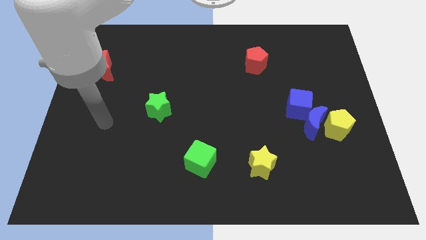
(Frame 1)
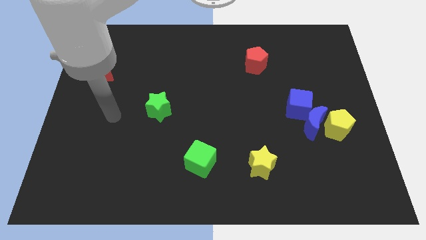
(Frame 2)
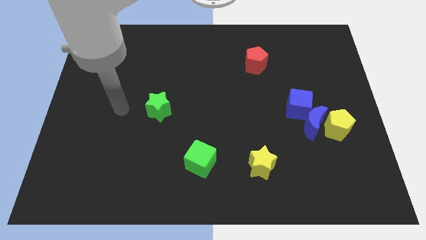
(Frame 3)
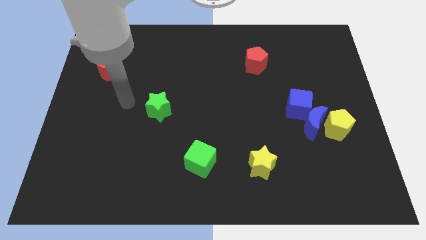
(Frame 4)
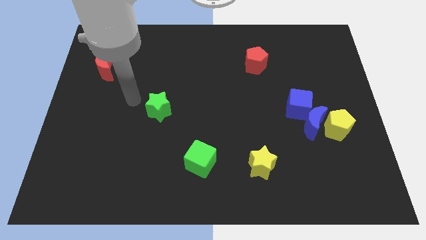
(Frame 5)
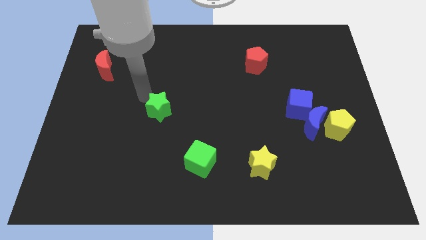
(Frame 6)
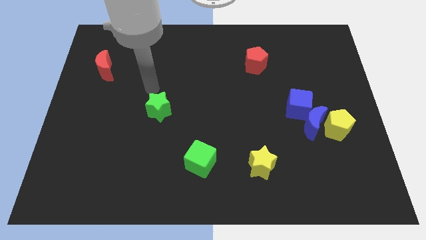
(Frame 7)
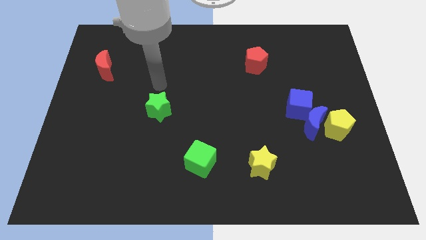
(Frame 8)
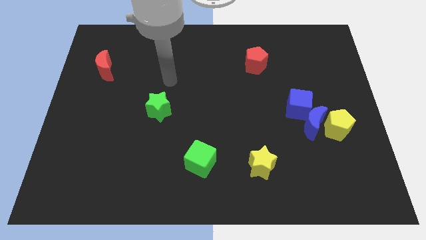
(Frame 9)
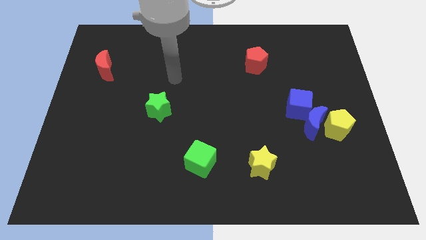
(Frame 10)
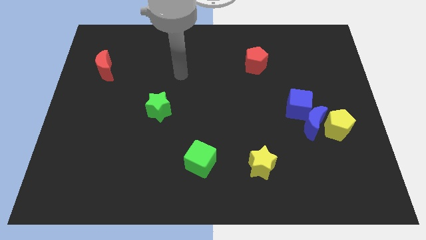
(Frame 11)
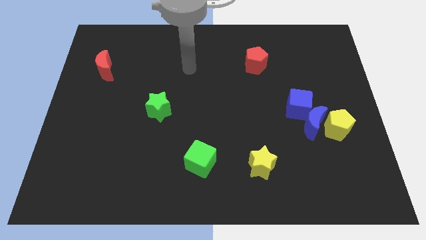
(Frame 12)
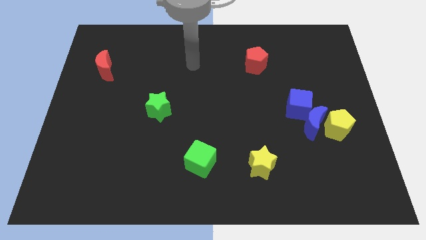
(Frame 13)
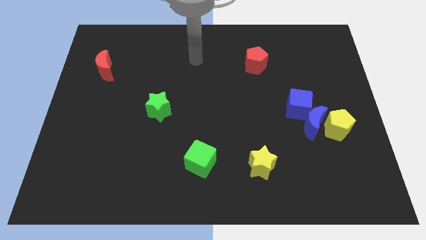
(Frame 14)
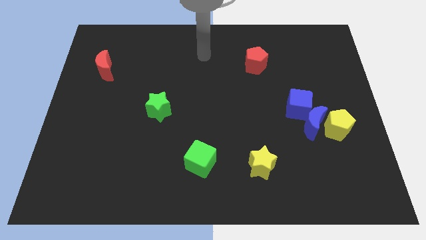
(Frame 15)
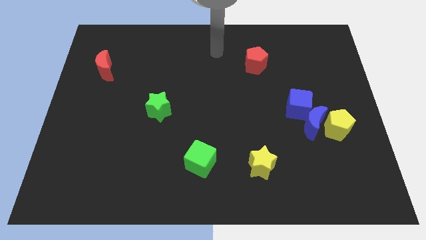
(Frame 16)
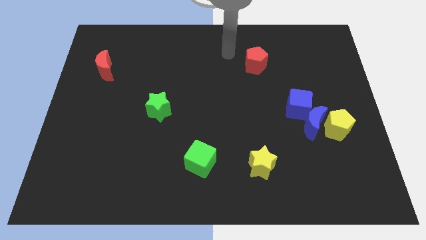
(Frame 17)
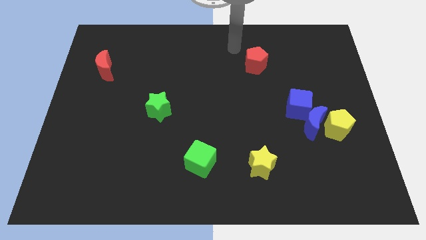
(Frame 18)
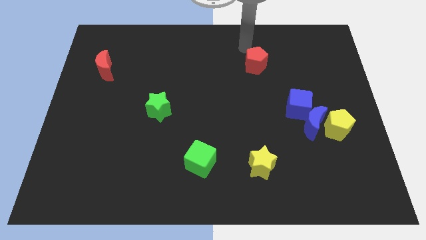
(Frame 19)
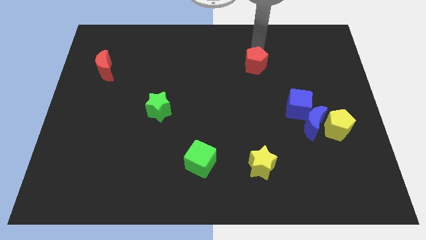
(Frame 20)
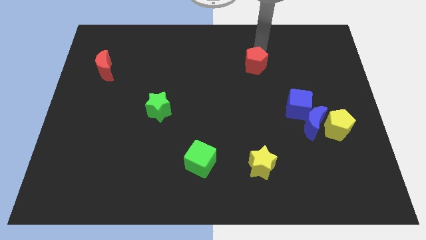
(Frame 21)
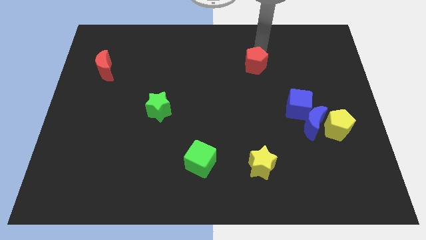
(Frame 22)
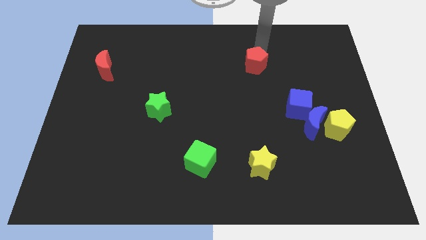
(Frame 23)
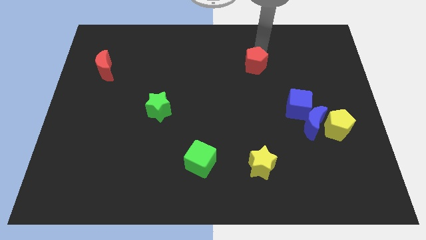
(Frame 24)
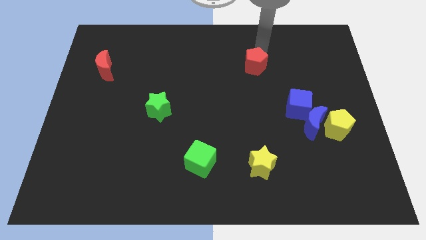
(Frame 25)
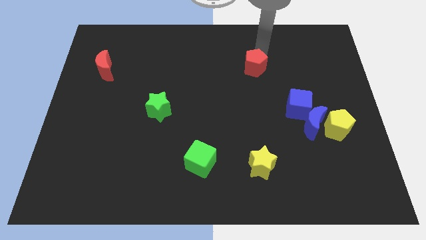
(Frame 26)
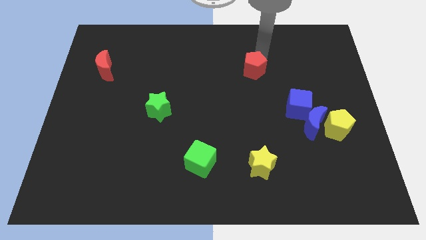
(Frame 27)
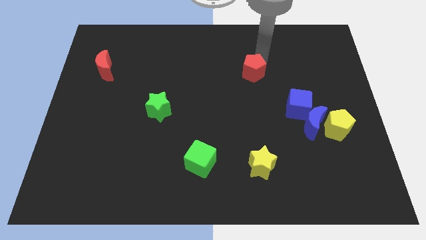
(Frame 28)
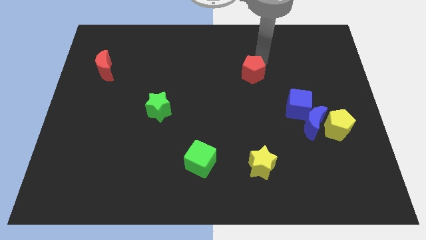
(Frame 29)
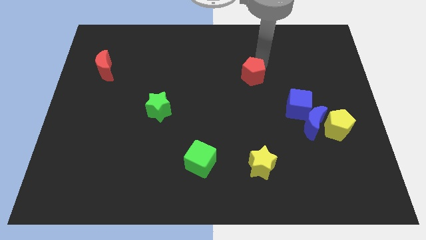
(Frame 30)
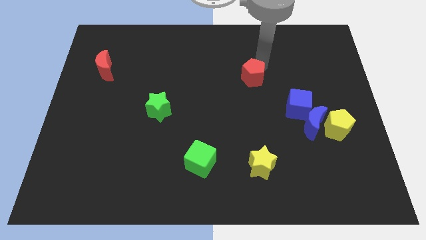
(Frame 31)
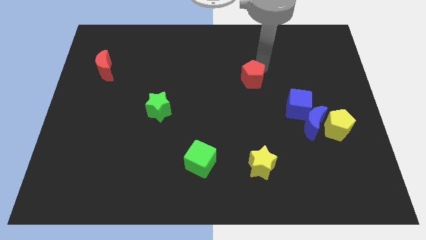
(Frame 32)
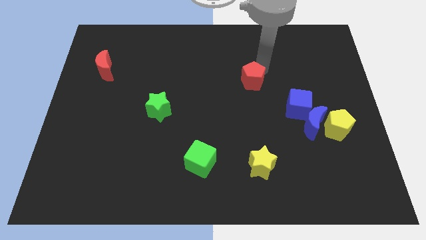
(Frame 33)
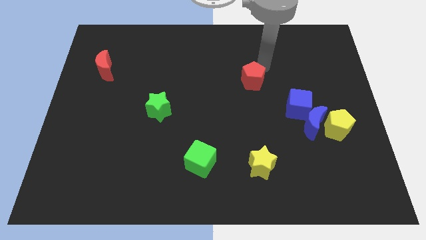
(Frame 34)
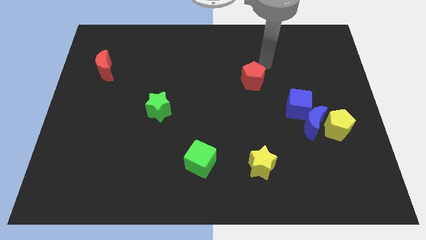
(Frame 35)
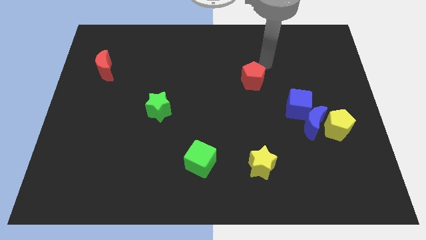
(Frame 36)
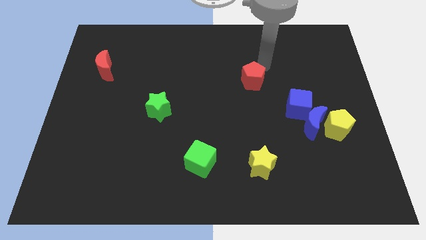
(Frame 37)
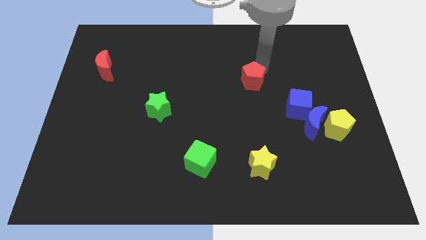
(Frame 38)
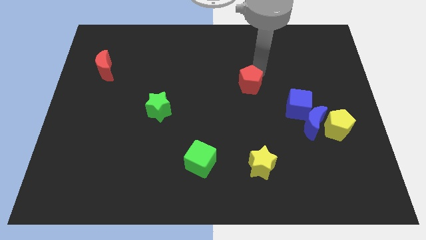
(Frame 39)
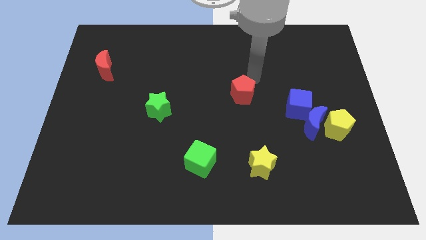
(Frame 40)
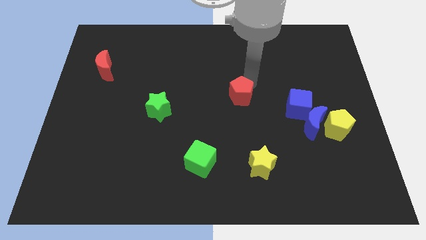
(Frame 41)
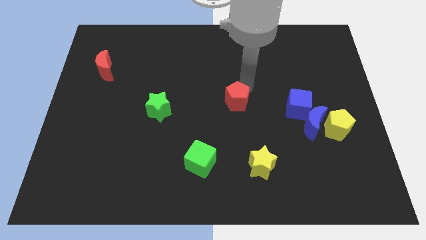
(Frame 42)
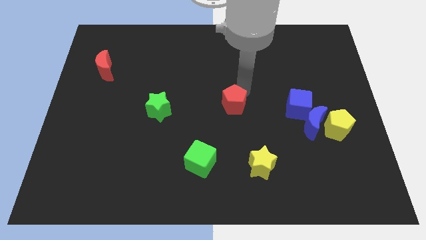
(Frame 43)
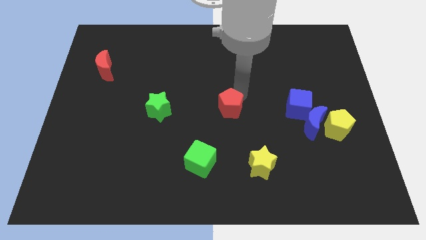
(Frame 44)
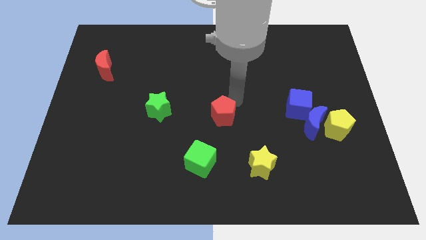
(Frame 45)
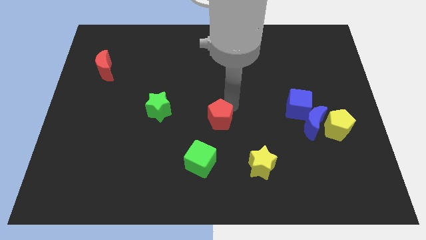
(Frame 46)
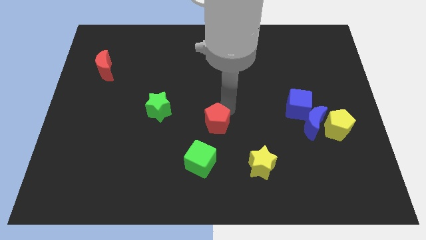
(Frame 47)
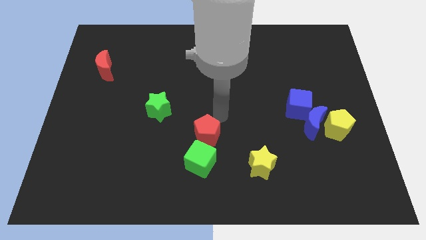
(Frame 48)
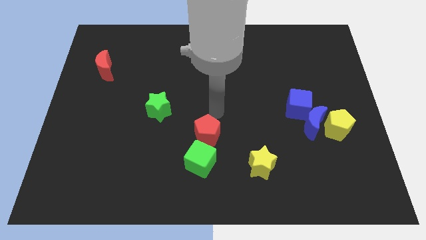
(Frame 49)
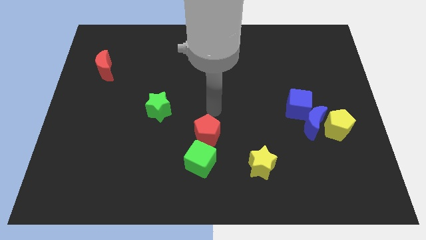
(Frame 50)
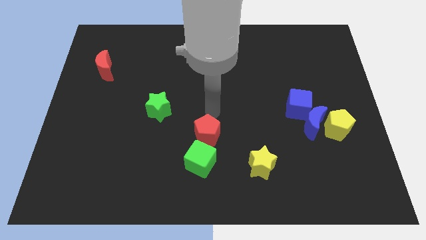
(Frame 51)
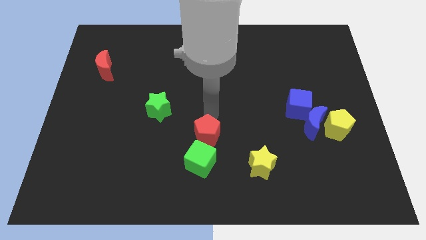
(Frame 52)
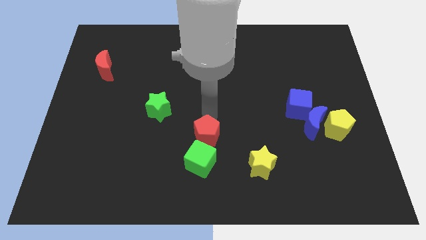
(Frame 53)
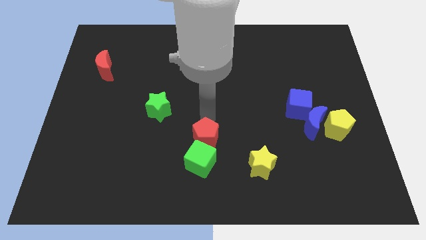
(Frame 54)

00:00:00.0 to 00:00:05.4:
put the red pentagon towards the green cube

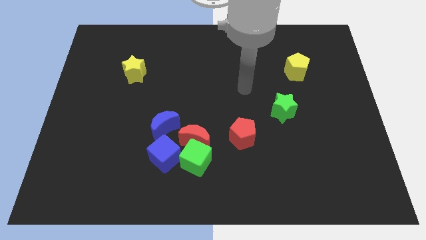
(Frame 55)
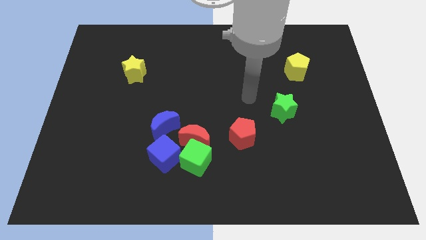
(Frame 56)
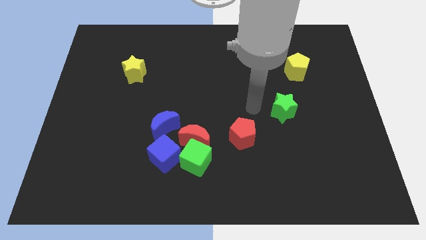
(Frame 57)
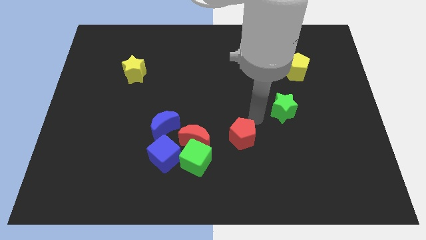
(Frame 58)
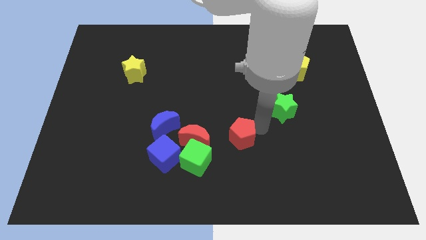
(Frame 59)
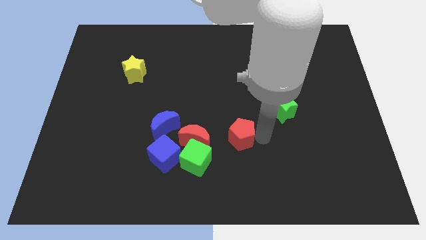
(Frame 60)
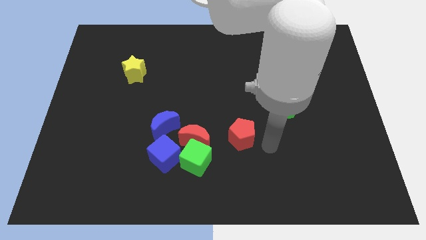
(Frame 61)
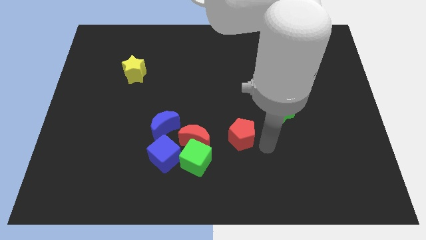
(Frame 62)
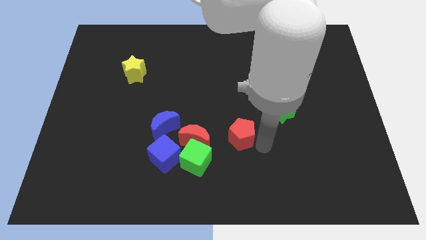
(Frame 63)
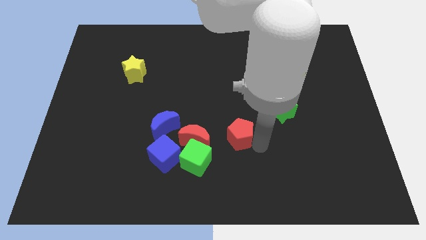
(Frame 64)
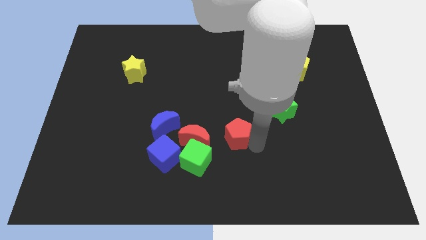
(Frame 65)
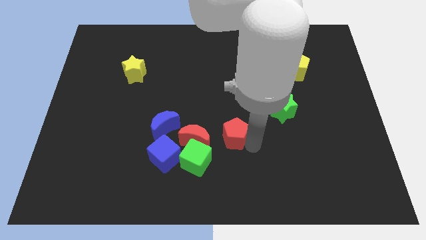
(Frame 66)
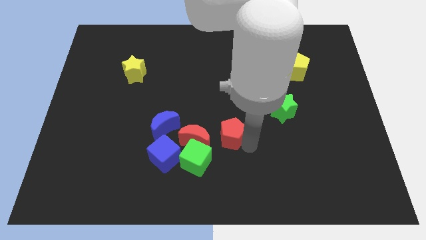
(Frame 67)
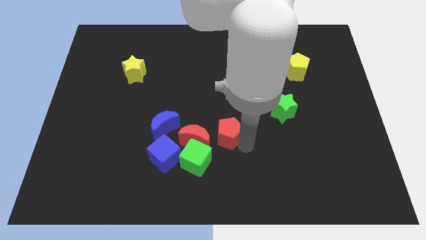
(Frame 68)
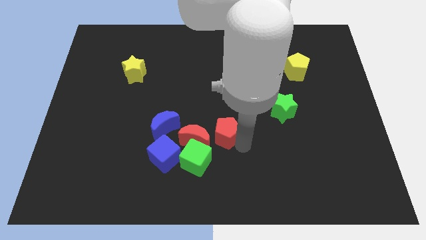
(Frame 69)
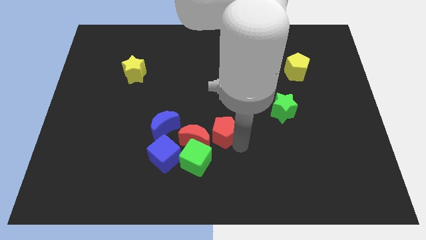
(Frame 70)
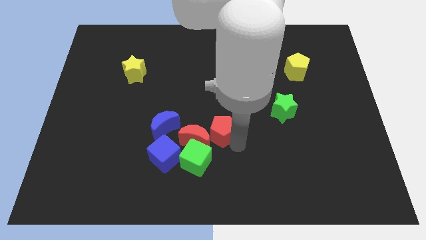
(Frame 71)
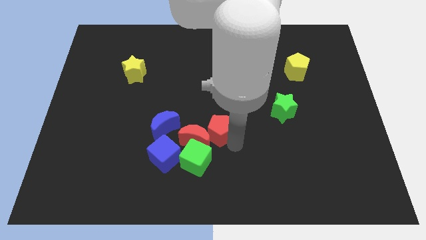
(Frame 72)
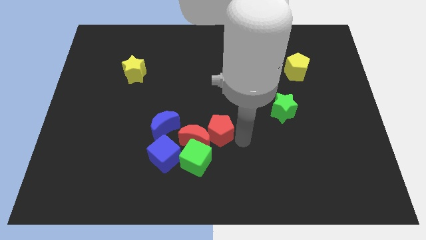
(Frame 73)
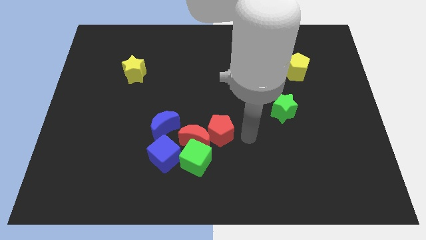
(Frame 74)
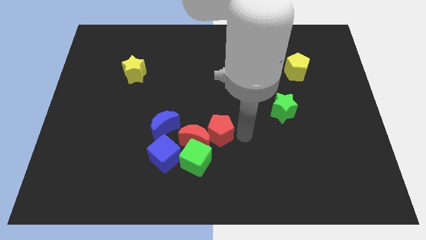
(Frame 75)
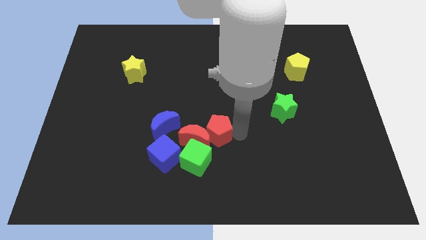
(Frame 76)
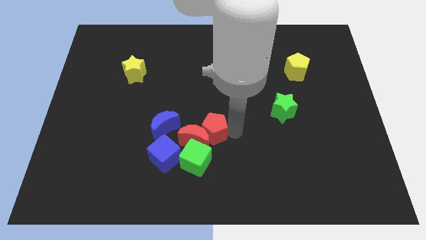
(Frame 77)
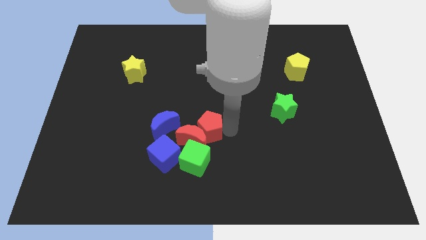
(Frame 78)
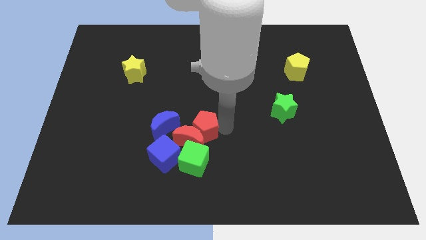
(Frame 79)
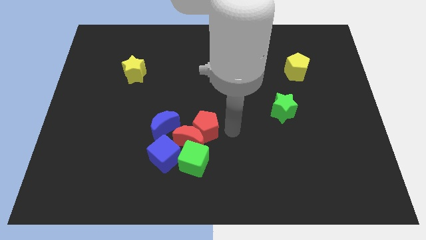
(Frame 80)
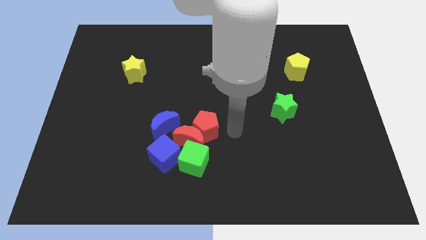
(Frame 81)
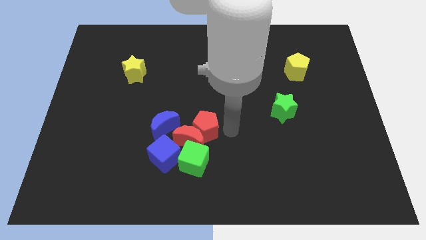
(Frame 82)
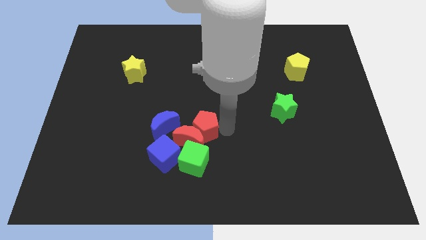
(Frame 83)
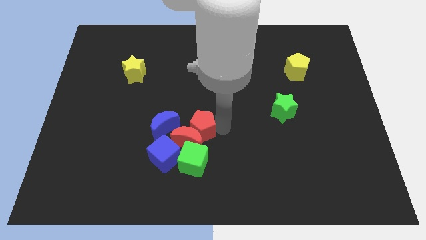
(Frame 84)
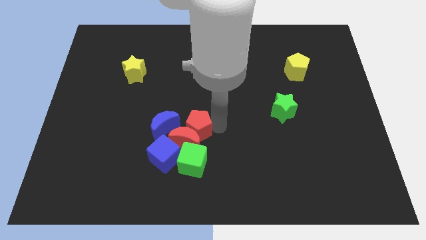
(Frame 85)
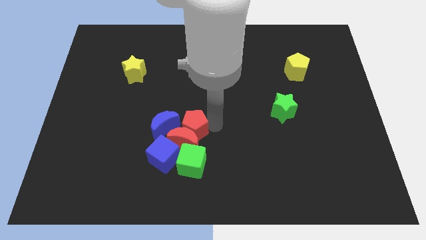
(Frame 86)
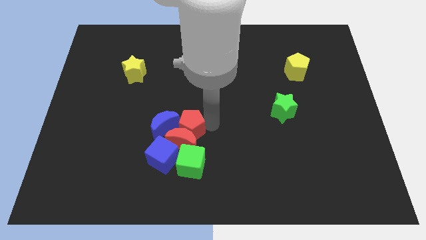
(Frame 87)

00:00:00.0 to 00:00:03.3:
push the red pentagon towards the blue moon
